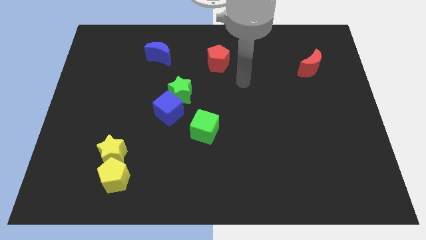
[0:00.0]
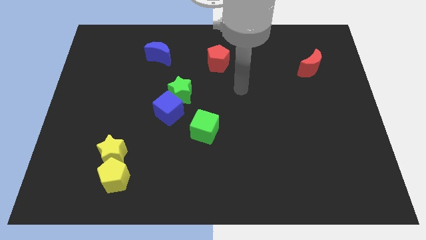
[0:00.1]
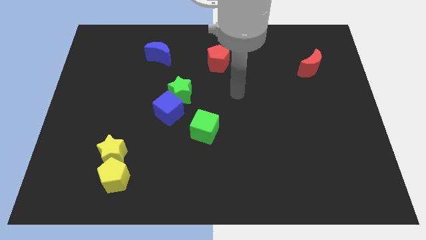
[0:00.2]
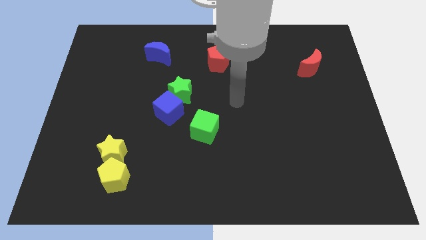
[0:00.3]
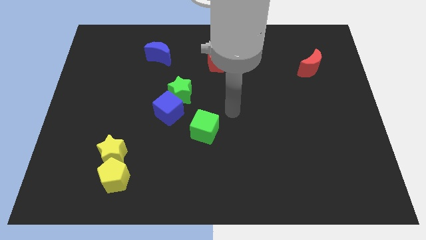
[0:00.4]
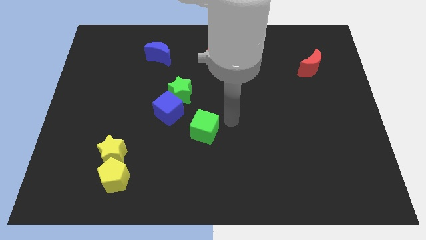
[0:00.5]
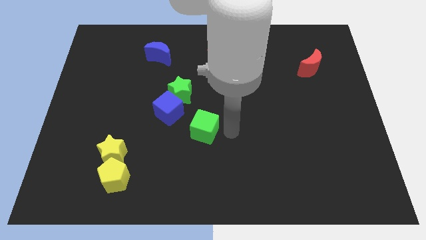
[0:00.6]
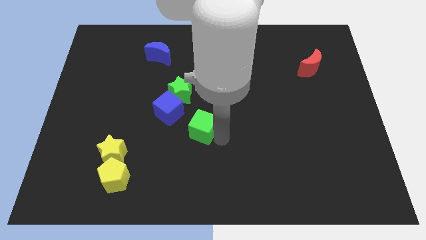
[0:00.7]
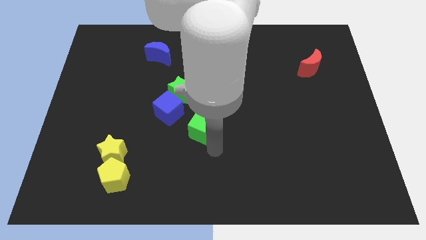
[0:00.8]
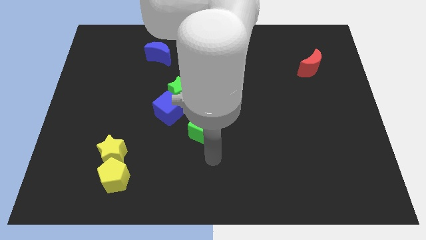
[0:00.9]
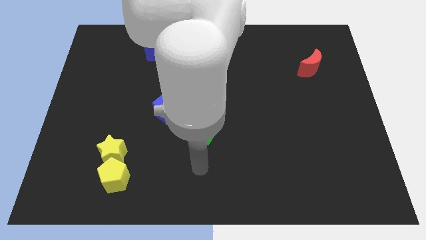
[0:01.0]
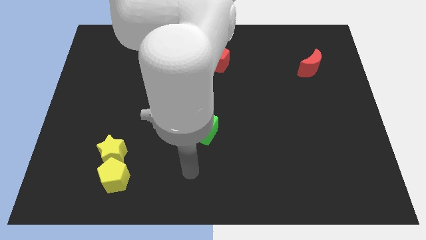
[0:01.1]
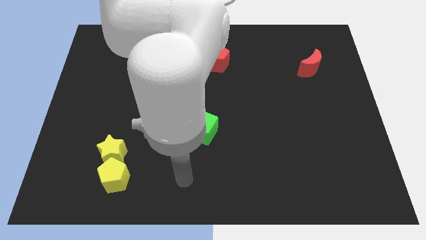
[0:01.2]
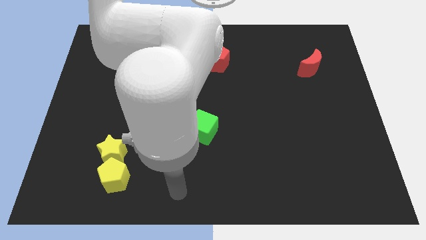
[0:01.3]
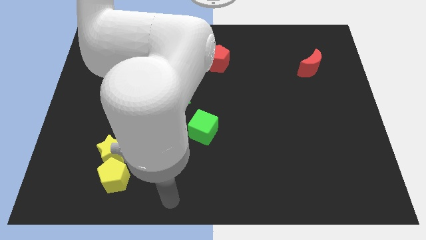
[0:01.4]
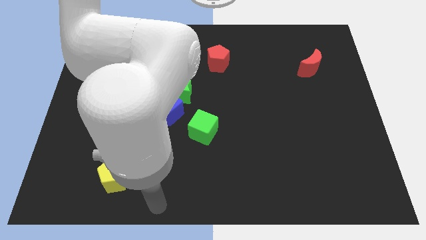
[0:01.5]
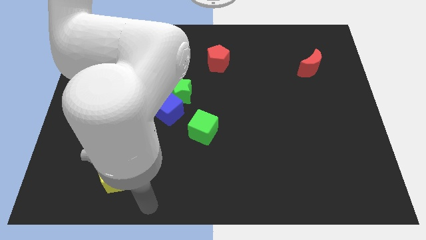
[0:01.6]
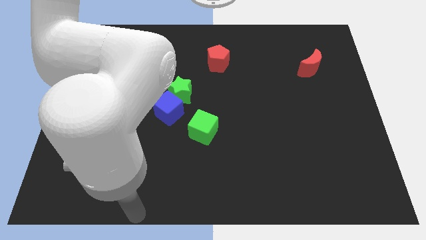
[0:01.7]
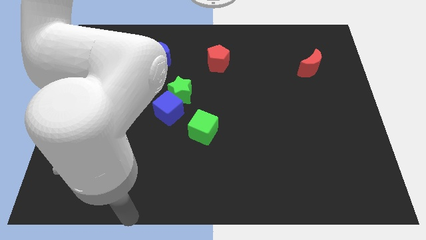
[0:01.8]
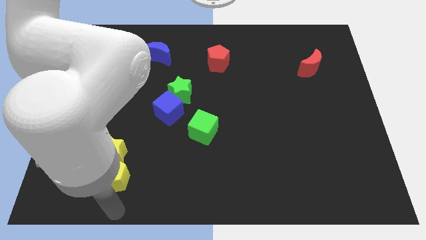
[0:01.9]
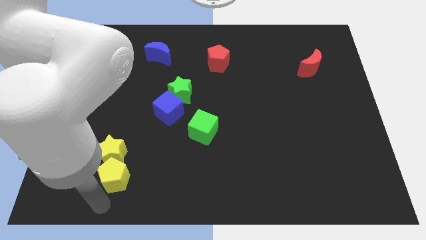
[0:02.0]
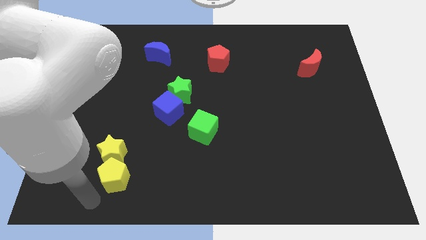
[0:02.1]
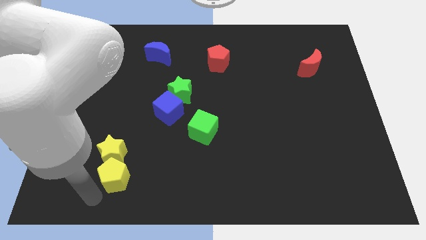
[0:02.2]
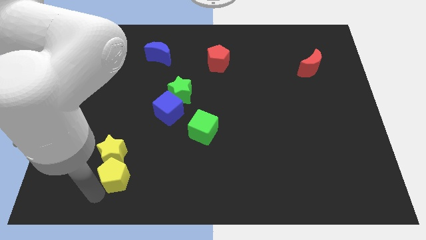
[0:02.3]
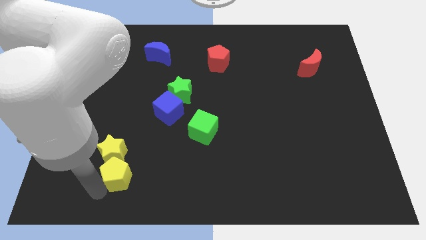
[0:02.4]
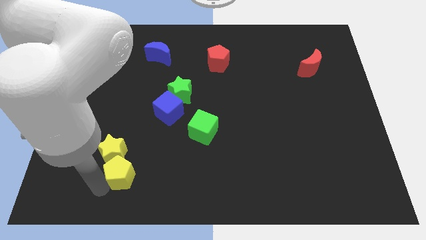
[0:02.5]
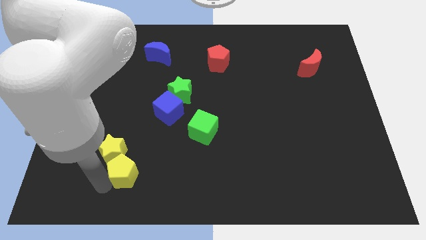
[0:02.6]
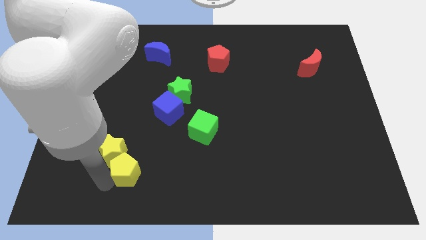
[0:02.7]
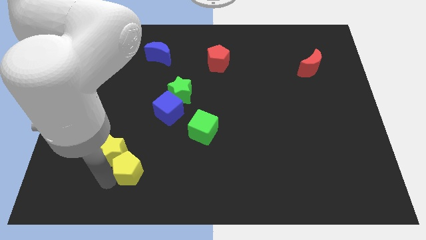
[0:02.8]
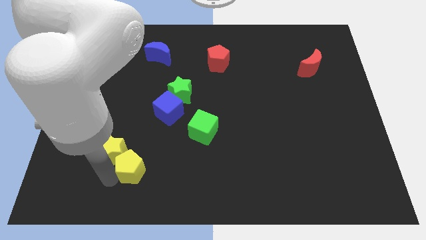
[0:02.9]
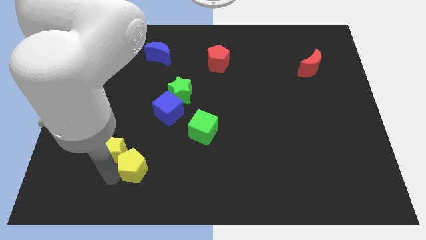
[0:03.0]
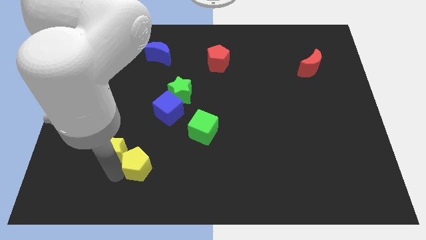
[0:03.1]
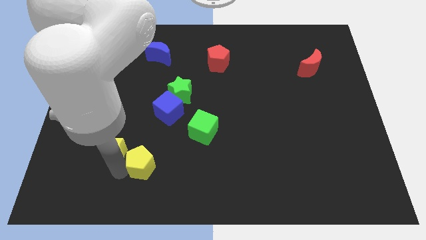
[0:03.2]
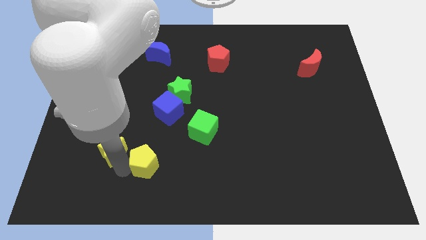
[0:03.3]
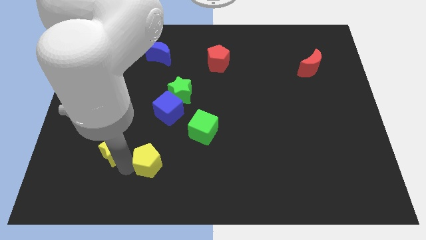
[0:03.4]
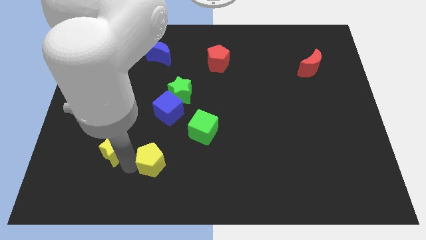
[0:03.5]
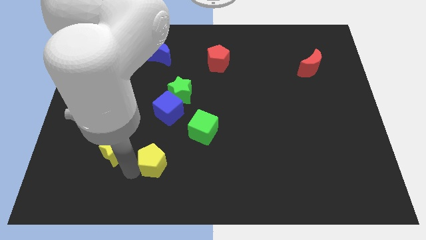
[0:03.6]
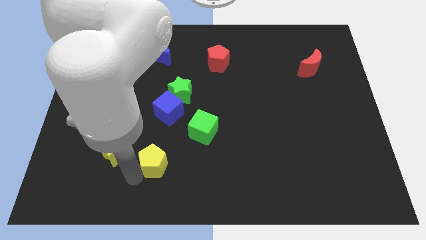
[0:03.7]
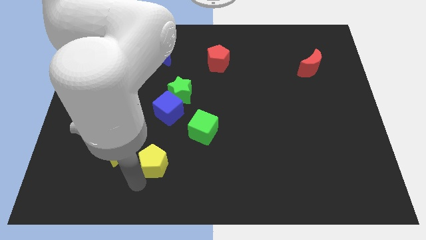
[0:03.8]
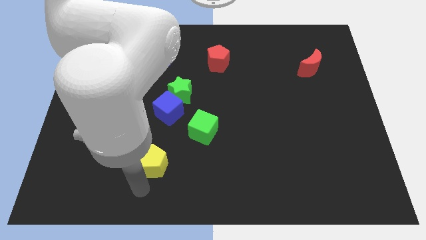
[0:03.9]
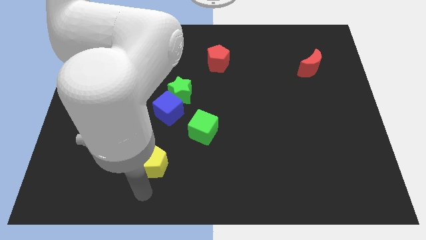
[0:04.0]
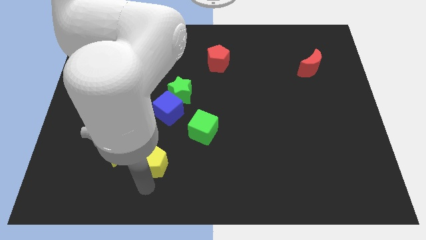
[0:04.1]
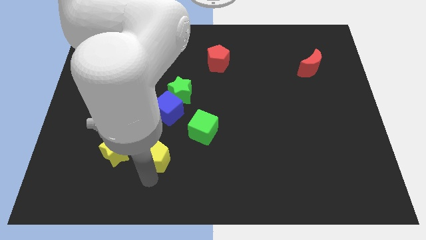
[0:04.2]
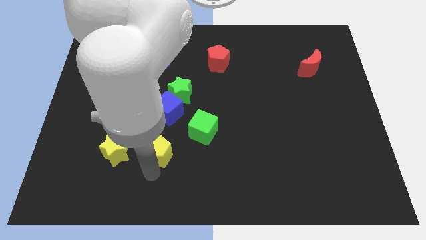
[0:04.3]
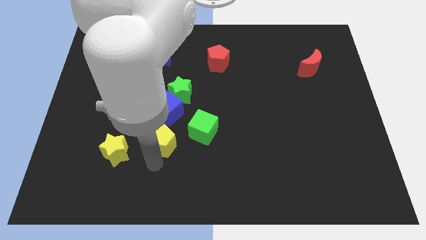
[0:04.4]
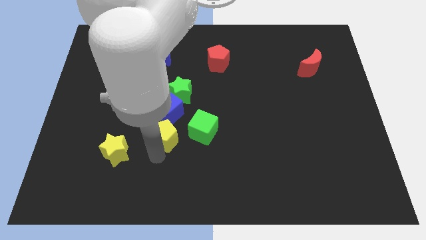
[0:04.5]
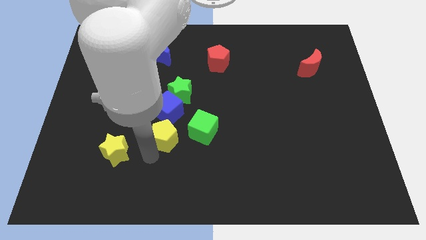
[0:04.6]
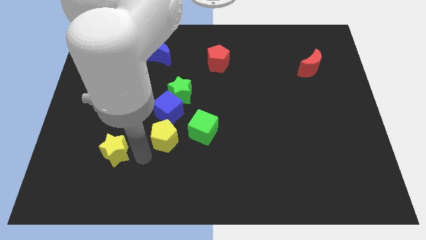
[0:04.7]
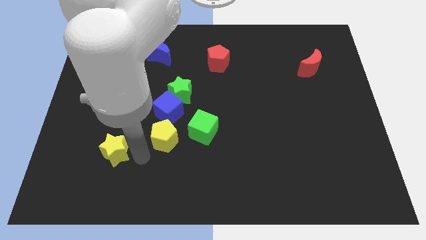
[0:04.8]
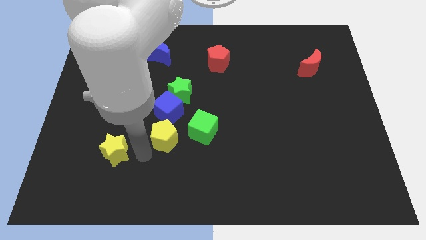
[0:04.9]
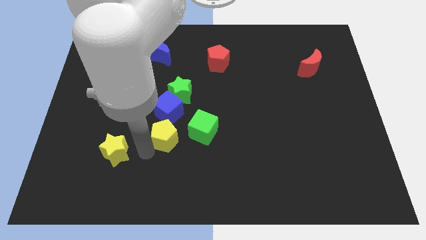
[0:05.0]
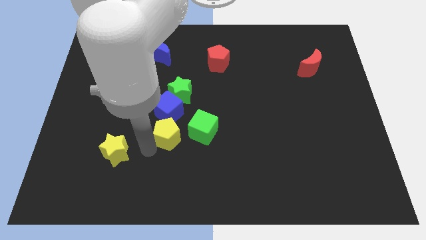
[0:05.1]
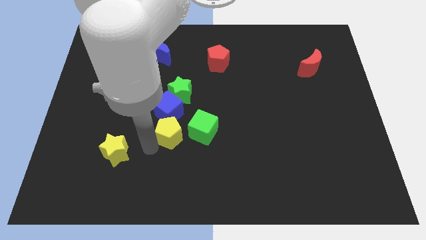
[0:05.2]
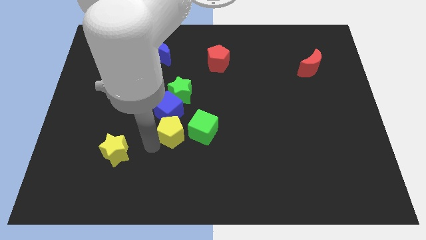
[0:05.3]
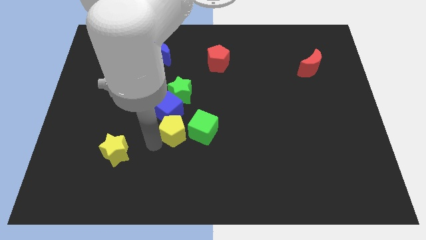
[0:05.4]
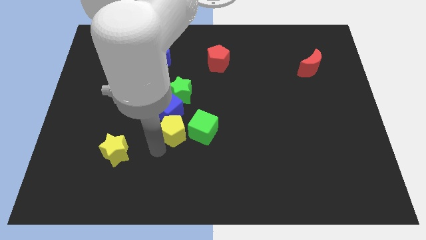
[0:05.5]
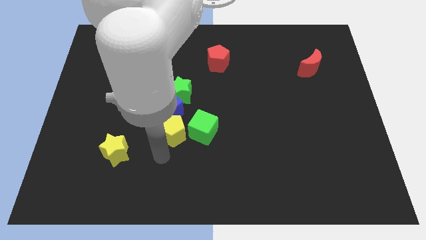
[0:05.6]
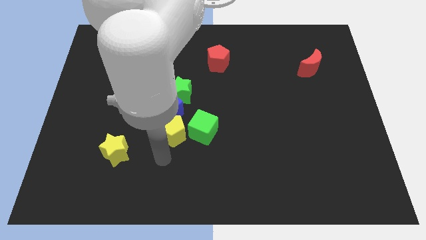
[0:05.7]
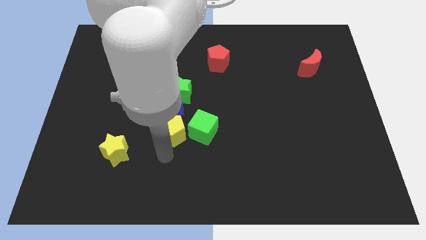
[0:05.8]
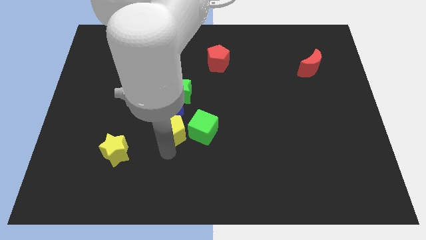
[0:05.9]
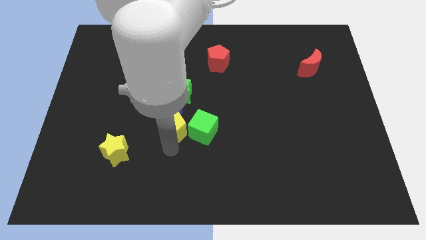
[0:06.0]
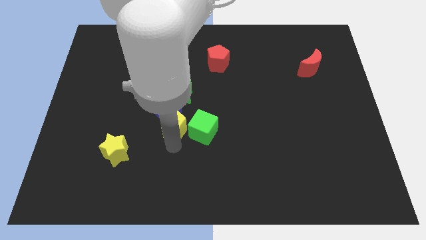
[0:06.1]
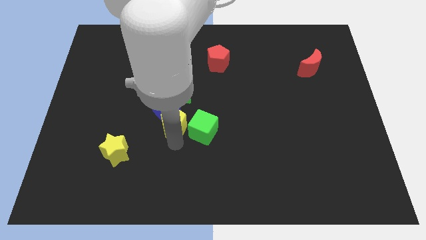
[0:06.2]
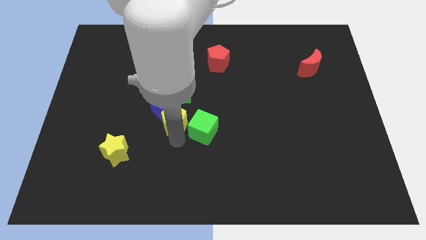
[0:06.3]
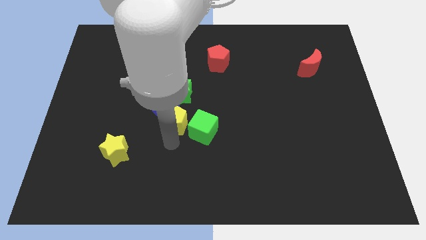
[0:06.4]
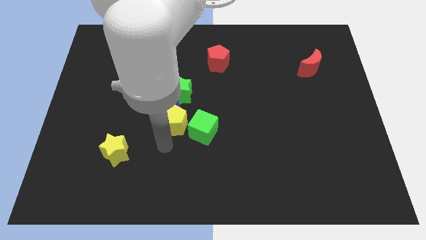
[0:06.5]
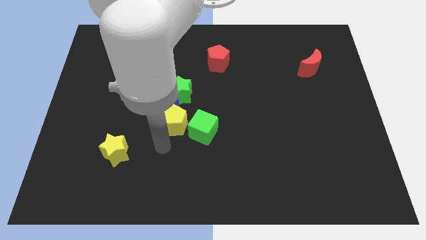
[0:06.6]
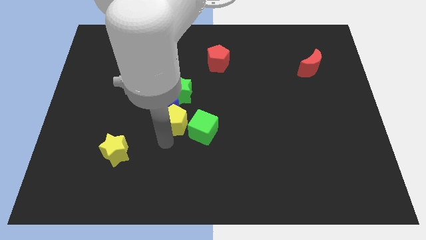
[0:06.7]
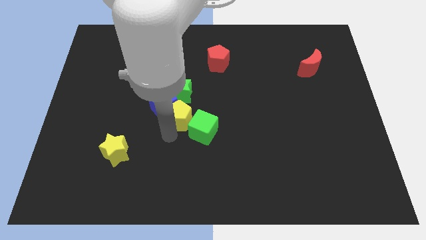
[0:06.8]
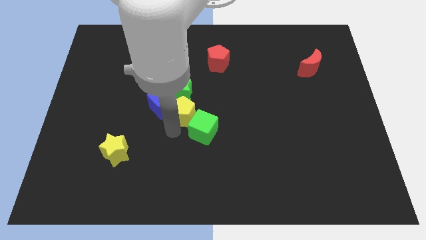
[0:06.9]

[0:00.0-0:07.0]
push the yellow pentagon towards the green star
